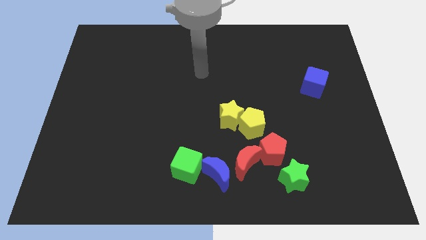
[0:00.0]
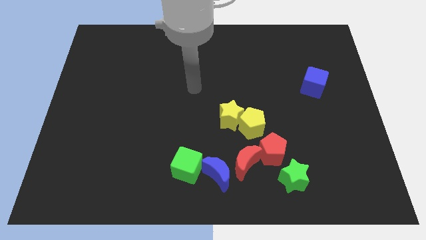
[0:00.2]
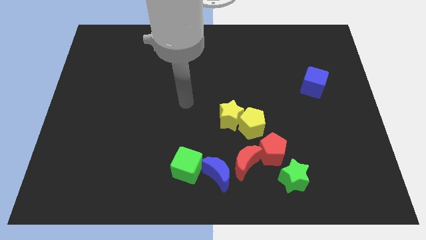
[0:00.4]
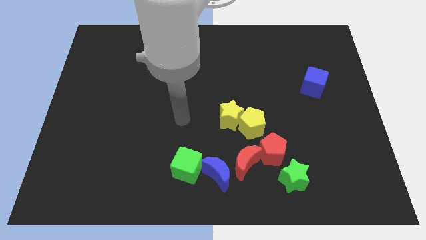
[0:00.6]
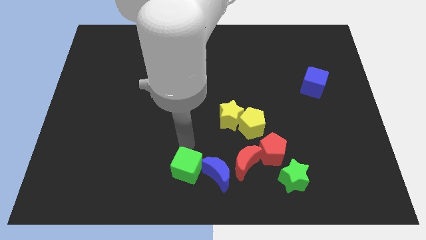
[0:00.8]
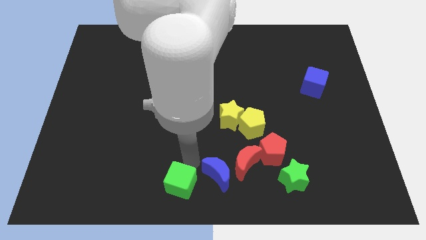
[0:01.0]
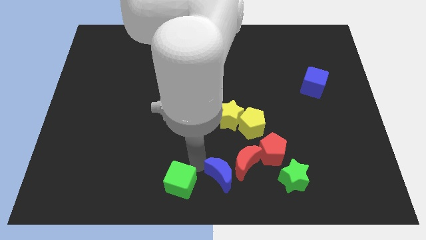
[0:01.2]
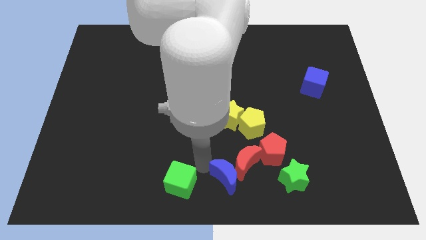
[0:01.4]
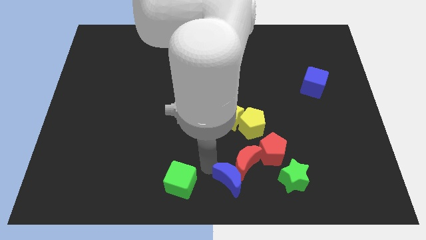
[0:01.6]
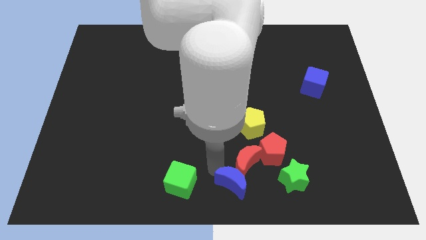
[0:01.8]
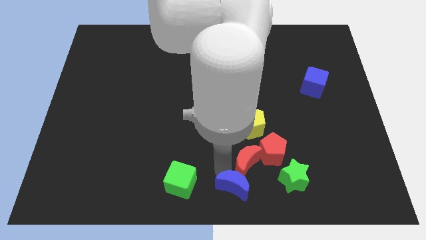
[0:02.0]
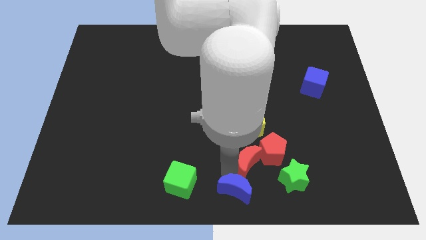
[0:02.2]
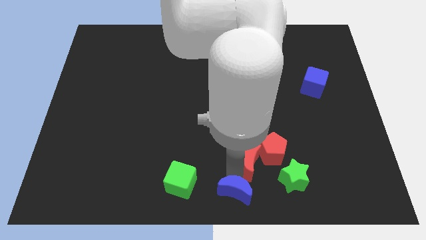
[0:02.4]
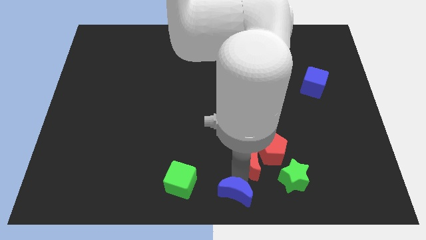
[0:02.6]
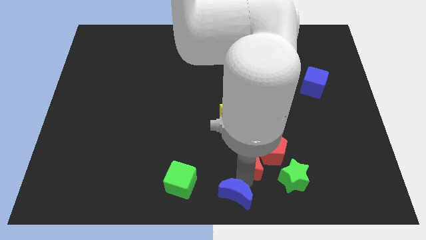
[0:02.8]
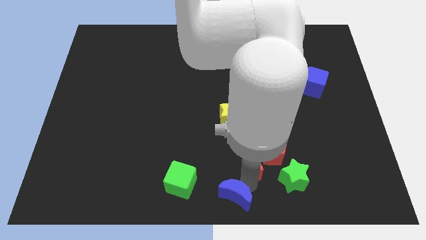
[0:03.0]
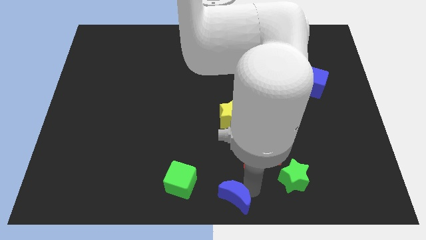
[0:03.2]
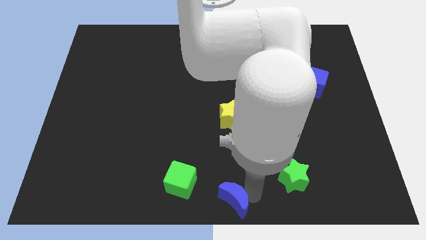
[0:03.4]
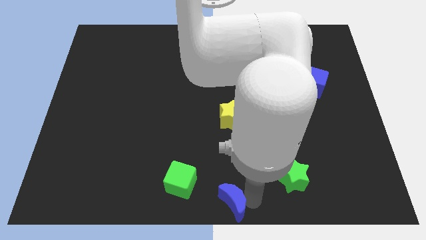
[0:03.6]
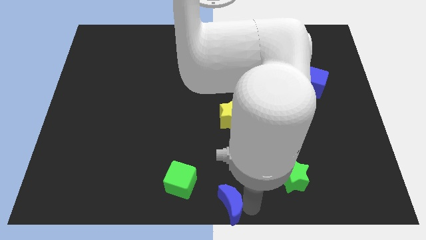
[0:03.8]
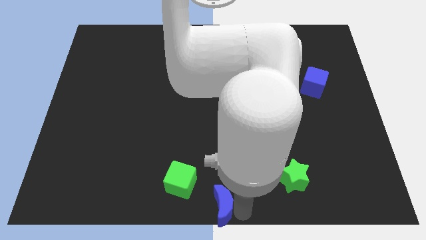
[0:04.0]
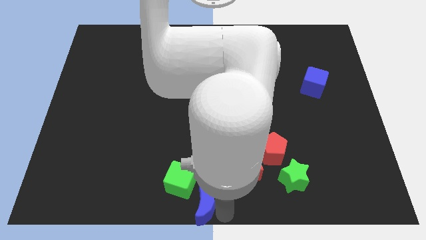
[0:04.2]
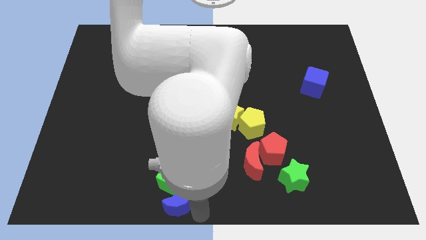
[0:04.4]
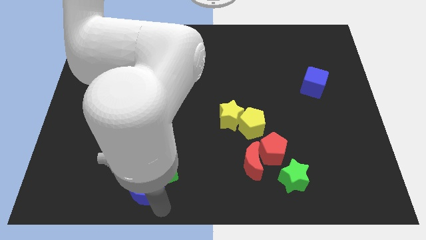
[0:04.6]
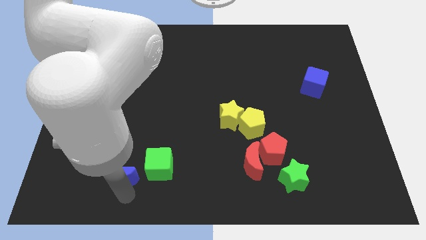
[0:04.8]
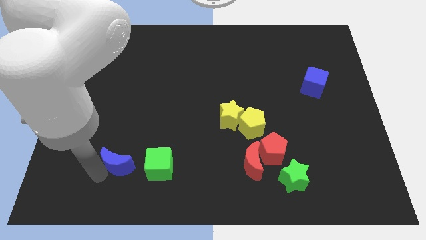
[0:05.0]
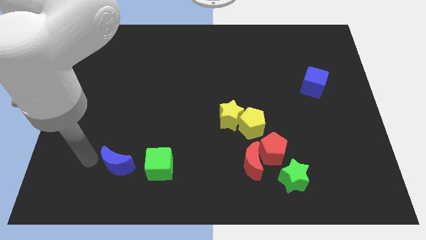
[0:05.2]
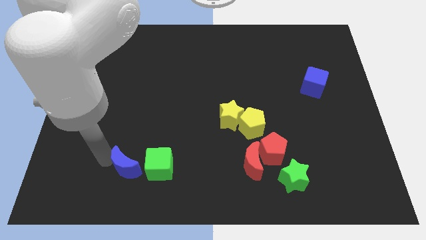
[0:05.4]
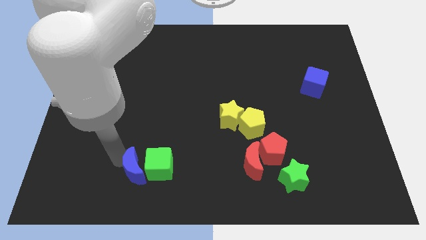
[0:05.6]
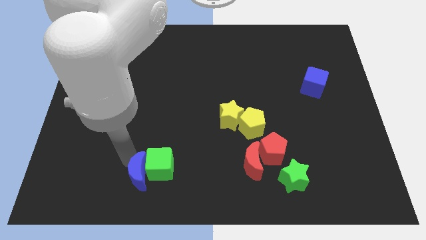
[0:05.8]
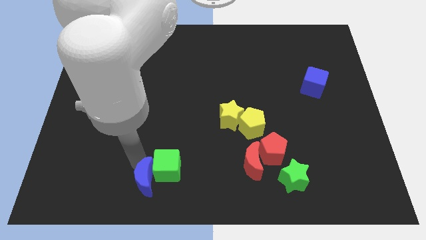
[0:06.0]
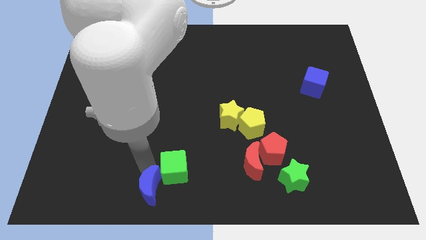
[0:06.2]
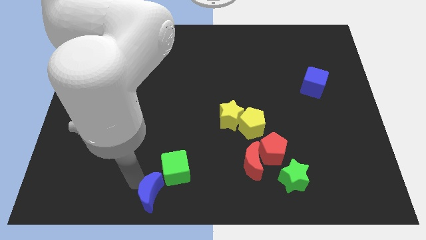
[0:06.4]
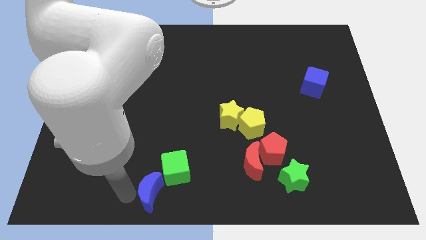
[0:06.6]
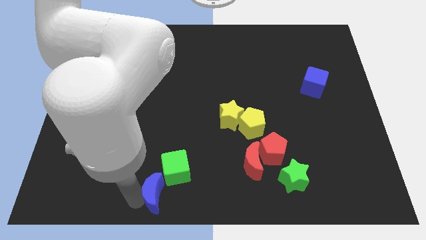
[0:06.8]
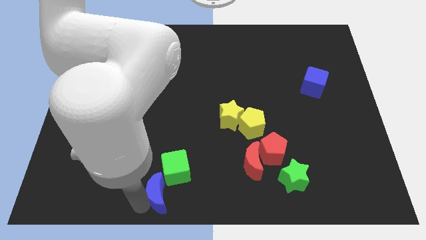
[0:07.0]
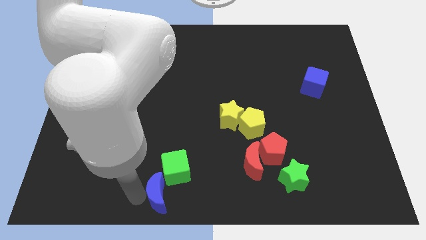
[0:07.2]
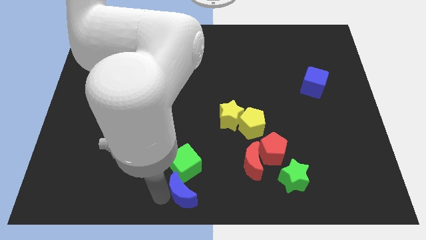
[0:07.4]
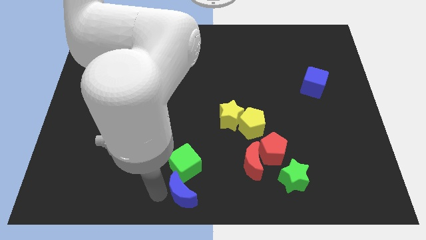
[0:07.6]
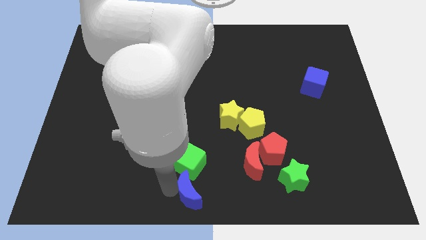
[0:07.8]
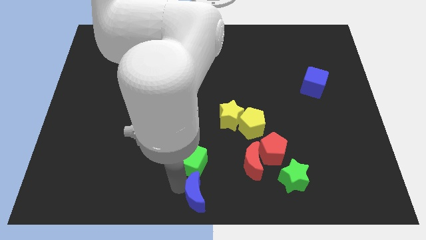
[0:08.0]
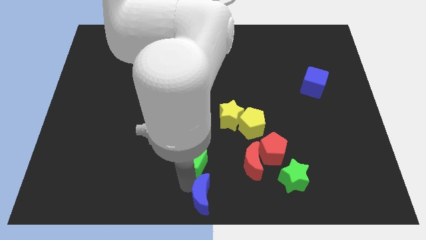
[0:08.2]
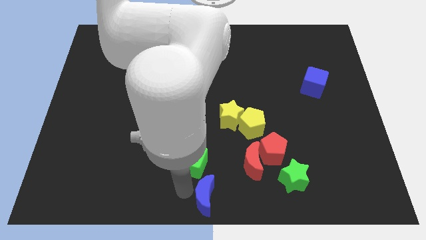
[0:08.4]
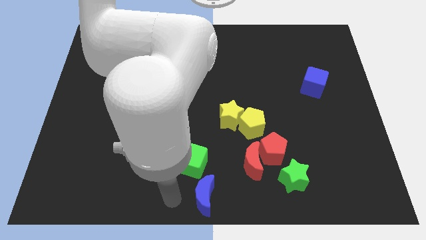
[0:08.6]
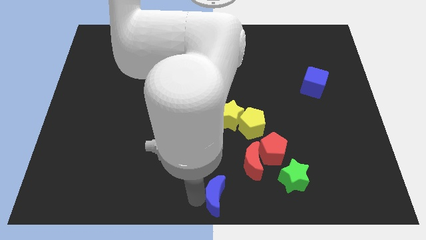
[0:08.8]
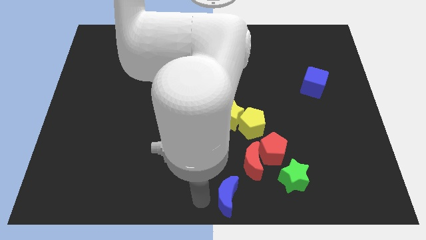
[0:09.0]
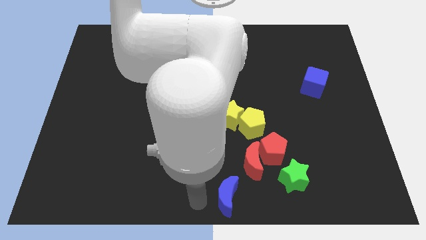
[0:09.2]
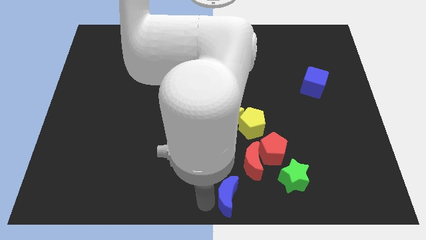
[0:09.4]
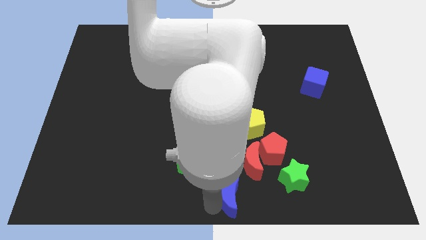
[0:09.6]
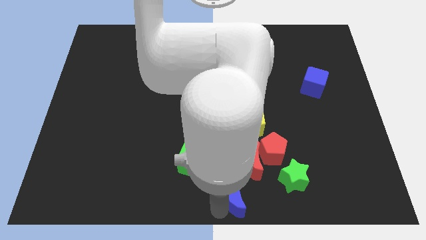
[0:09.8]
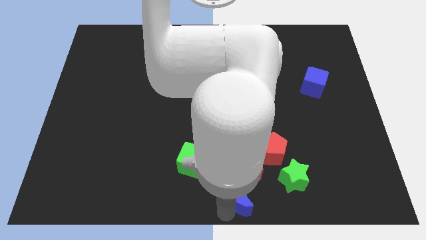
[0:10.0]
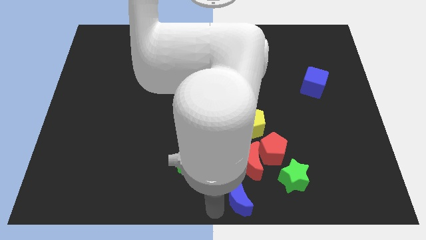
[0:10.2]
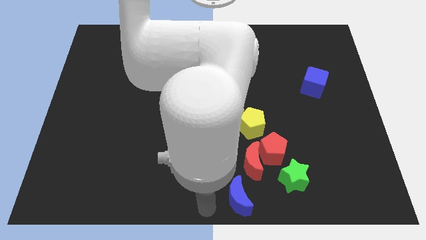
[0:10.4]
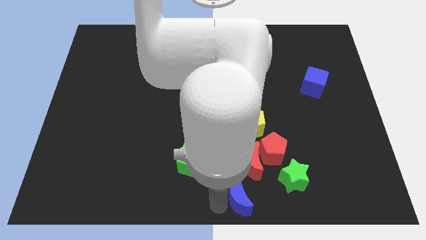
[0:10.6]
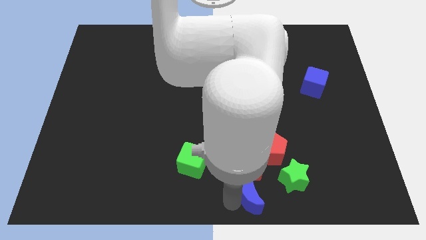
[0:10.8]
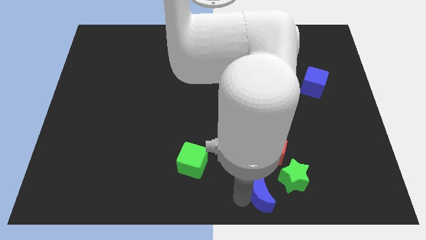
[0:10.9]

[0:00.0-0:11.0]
move the blue moon right slightly

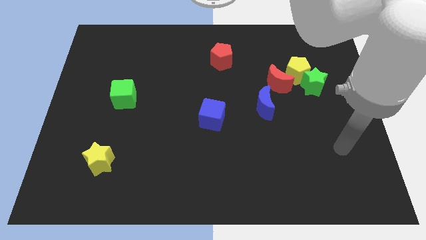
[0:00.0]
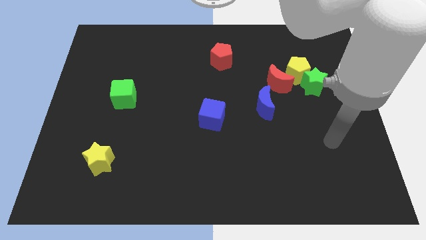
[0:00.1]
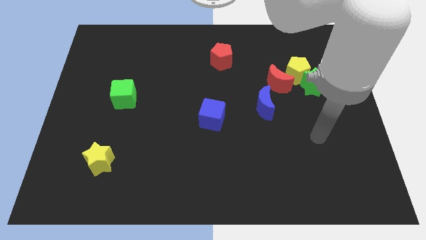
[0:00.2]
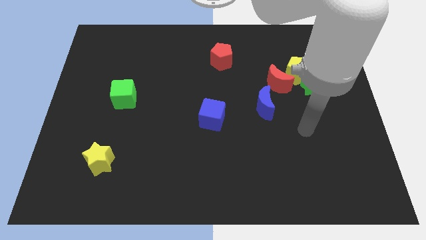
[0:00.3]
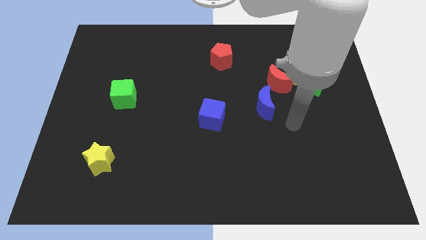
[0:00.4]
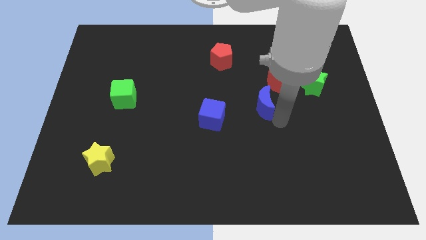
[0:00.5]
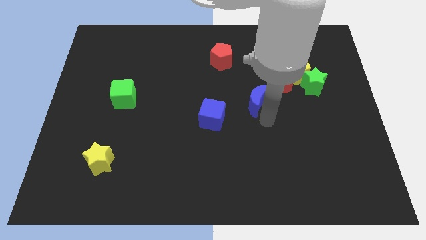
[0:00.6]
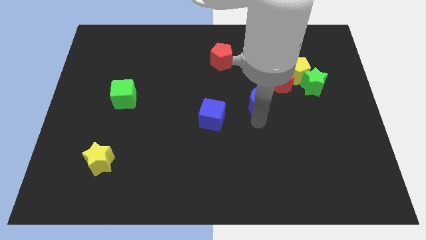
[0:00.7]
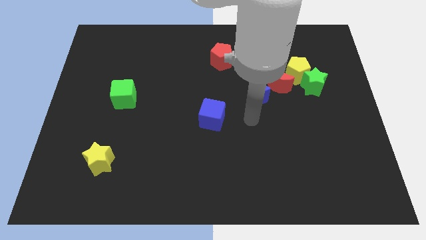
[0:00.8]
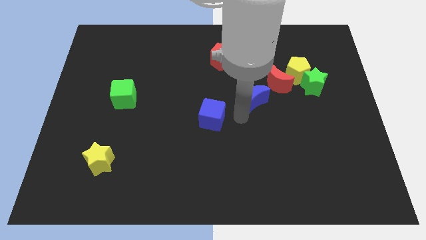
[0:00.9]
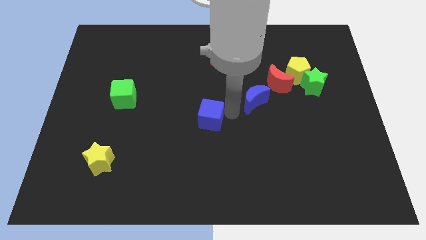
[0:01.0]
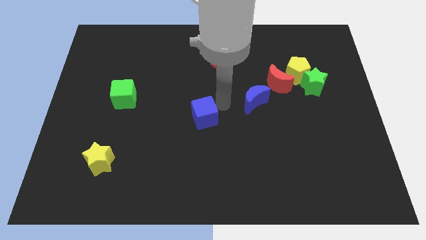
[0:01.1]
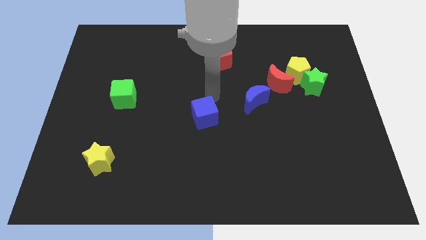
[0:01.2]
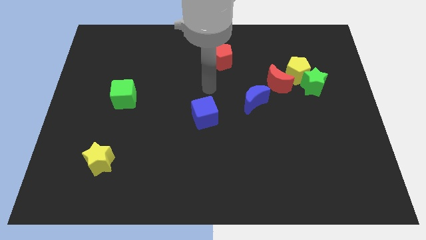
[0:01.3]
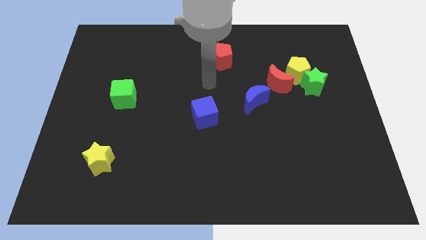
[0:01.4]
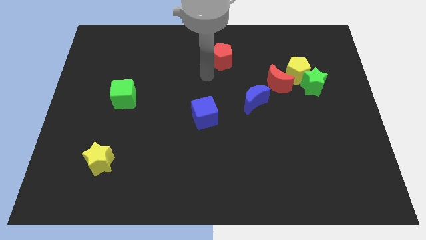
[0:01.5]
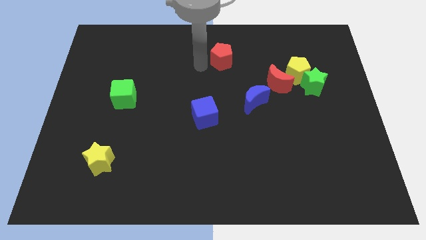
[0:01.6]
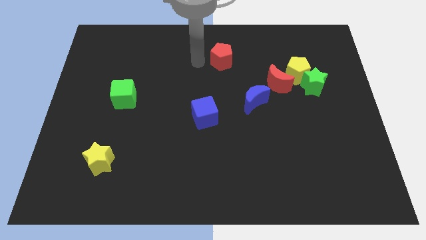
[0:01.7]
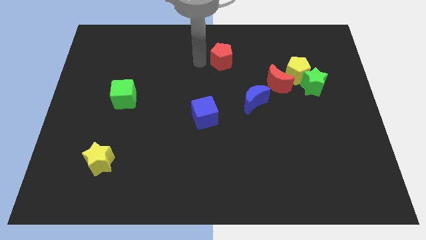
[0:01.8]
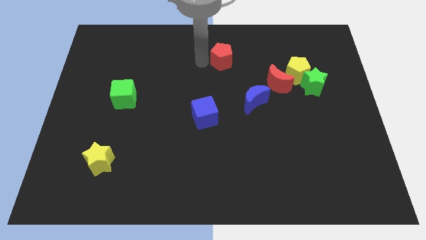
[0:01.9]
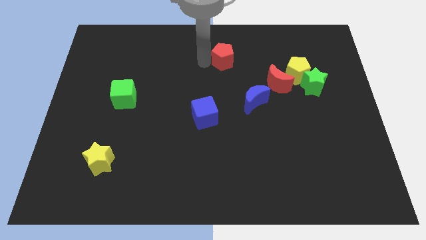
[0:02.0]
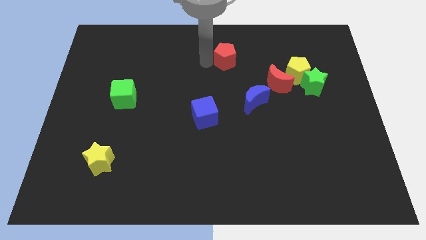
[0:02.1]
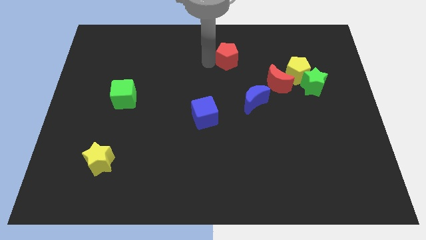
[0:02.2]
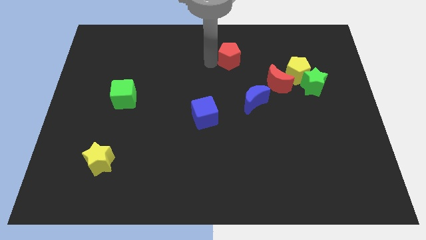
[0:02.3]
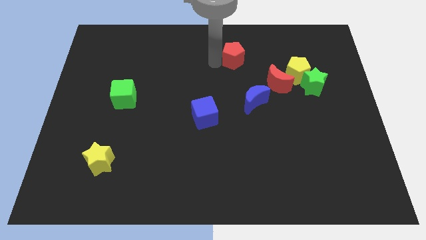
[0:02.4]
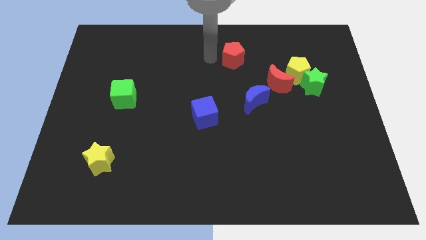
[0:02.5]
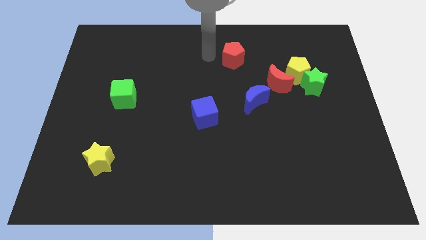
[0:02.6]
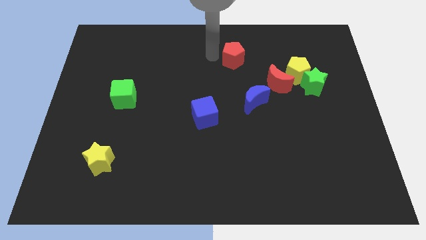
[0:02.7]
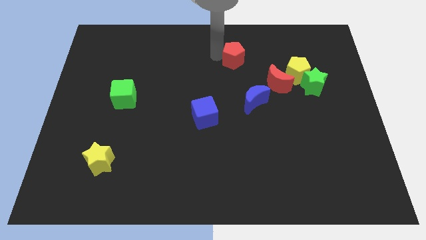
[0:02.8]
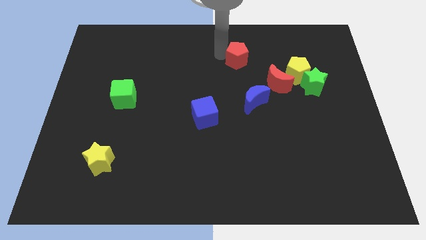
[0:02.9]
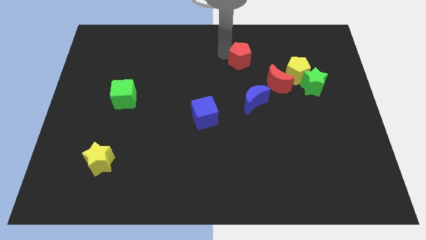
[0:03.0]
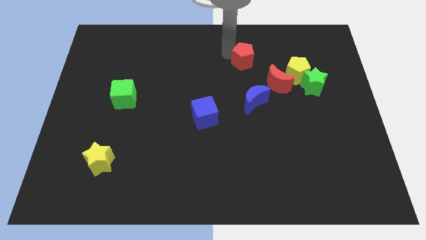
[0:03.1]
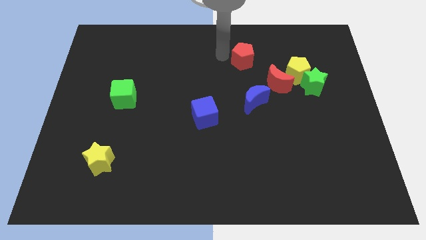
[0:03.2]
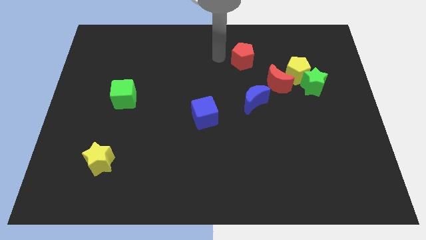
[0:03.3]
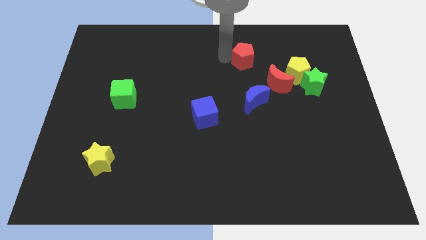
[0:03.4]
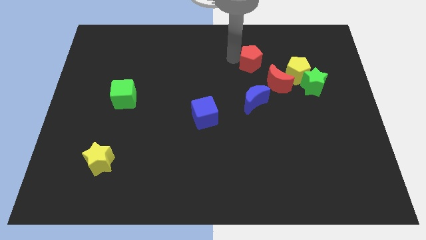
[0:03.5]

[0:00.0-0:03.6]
slightly push the red pentagon right
